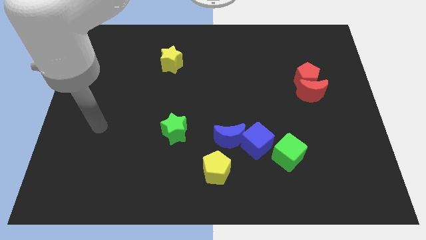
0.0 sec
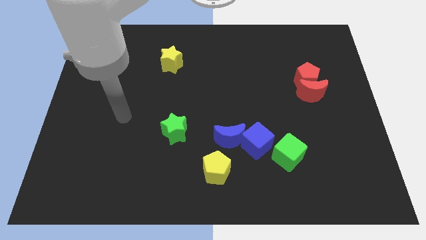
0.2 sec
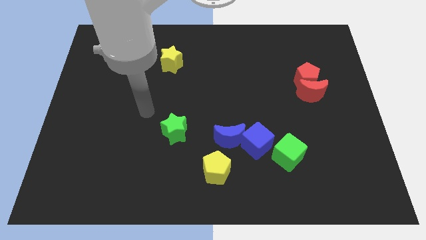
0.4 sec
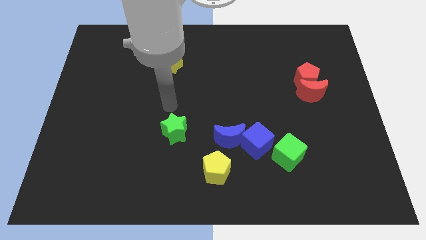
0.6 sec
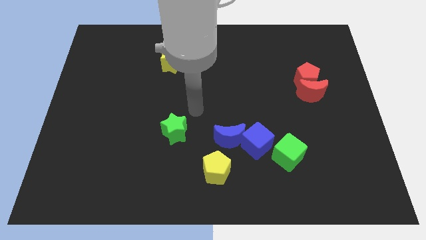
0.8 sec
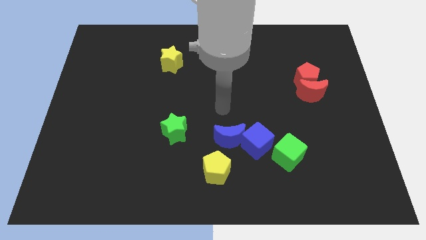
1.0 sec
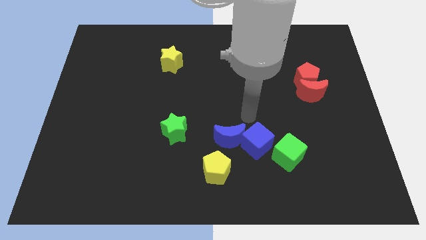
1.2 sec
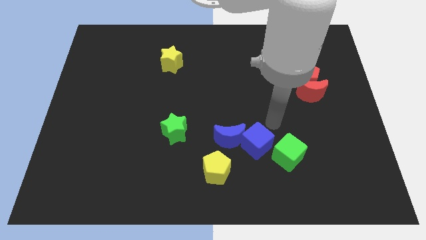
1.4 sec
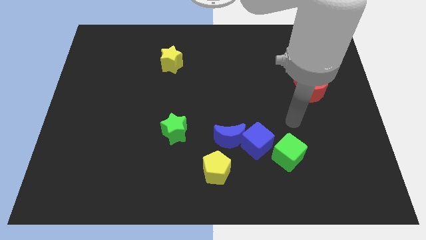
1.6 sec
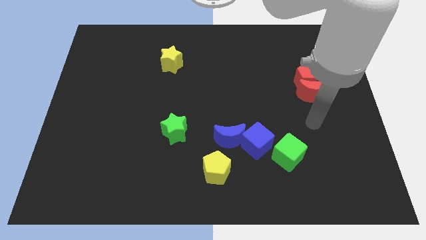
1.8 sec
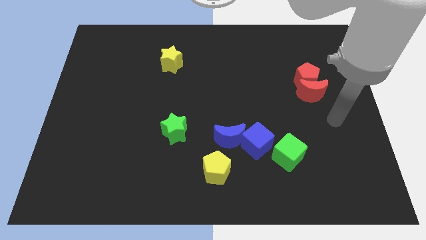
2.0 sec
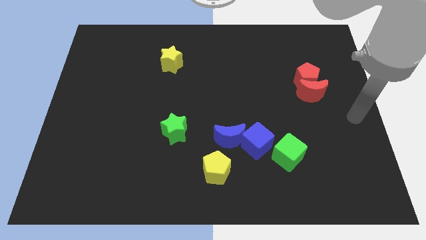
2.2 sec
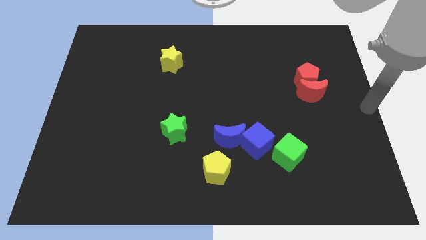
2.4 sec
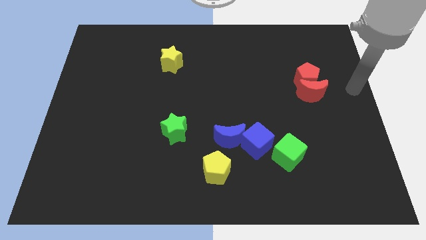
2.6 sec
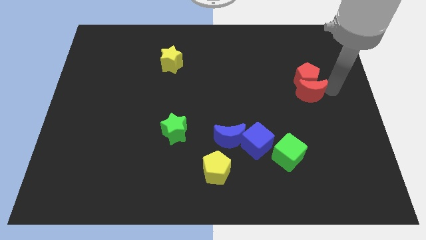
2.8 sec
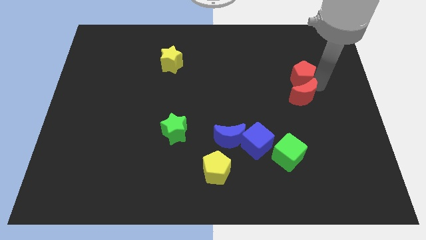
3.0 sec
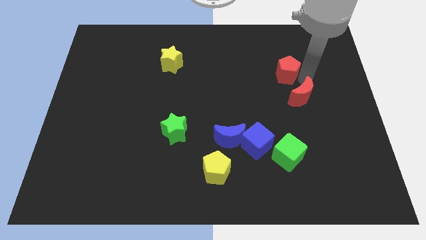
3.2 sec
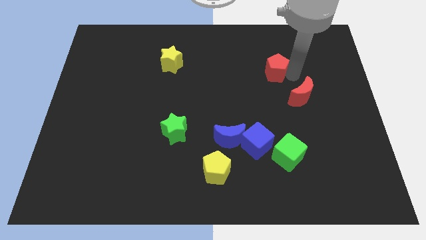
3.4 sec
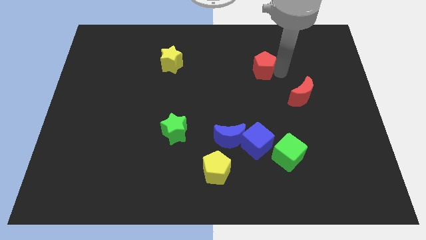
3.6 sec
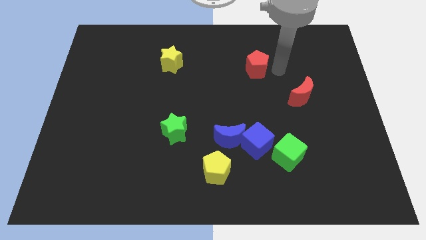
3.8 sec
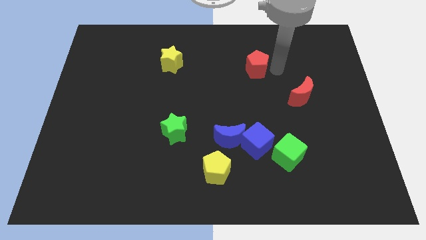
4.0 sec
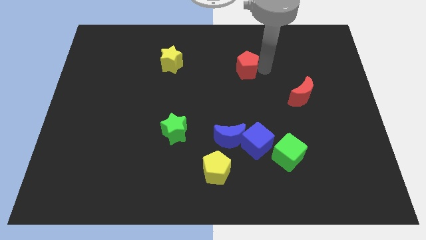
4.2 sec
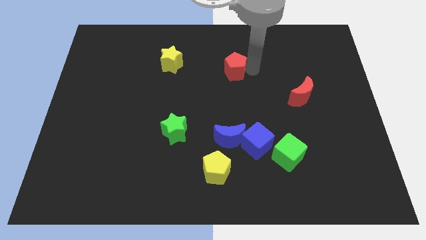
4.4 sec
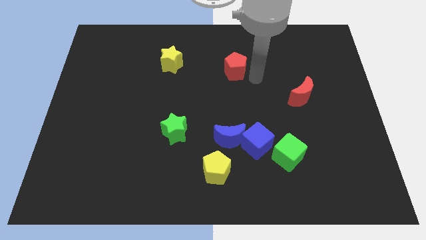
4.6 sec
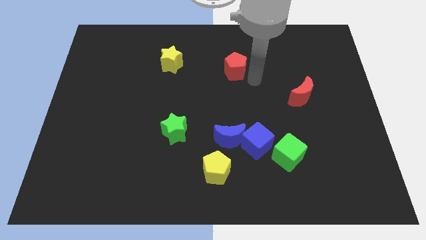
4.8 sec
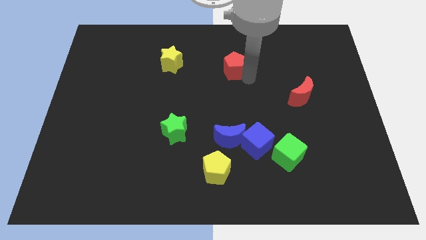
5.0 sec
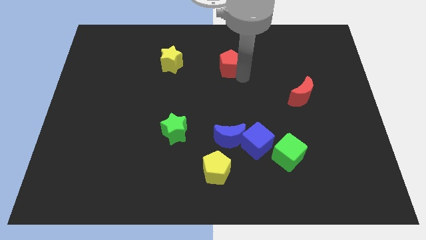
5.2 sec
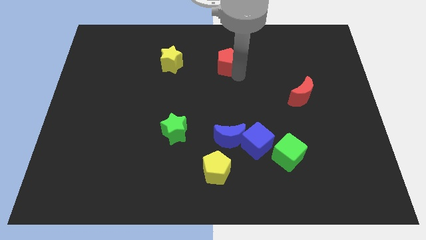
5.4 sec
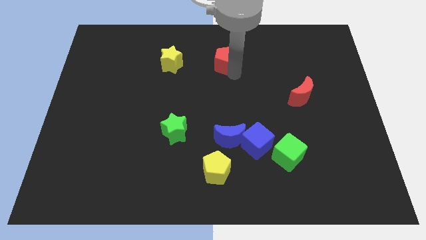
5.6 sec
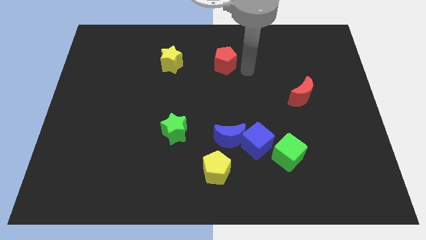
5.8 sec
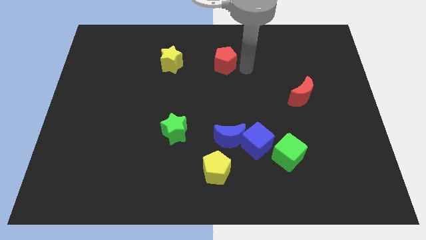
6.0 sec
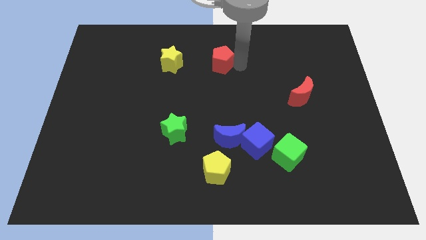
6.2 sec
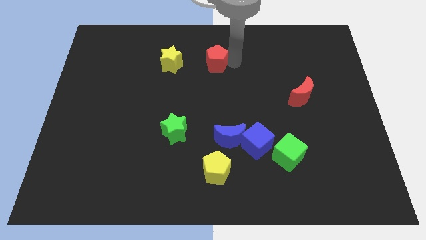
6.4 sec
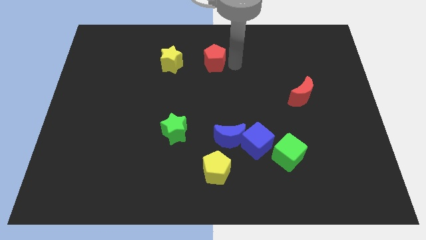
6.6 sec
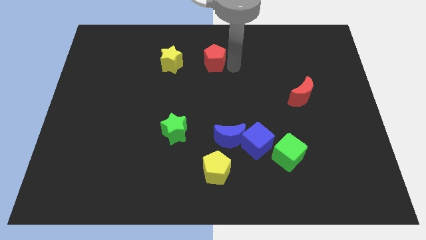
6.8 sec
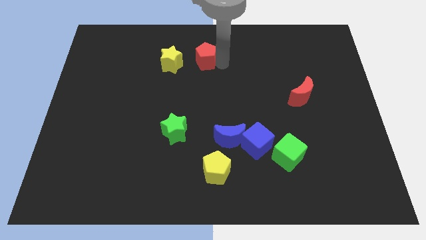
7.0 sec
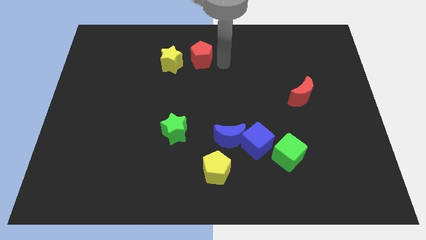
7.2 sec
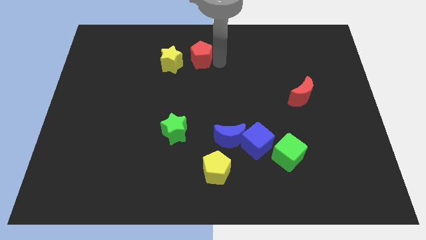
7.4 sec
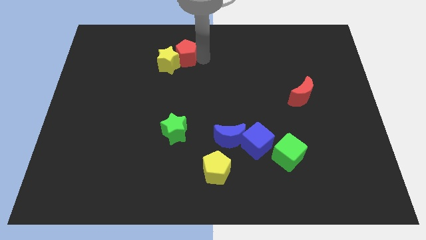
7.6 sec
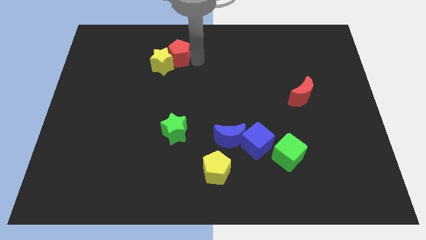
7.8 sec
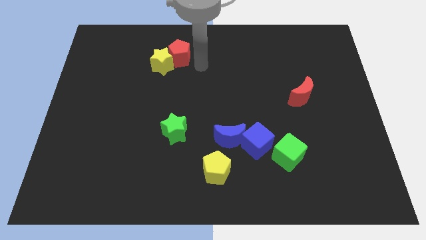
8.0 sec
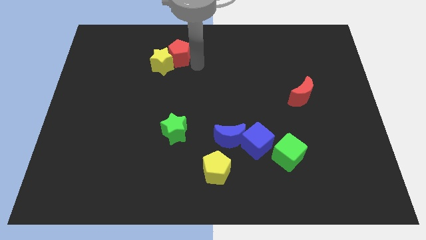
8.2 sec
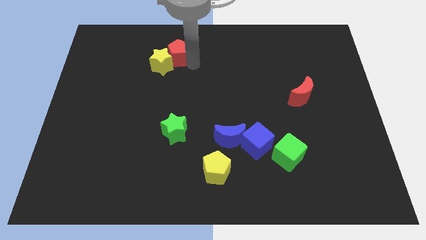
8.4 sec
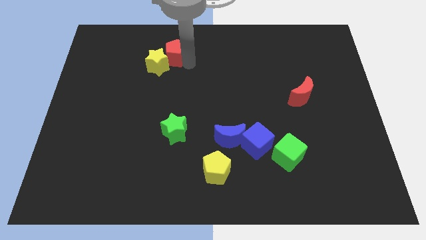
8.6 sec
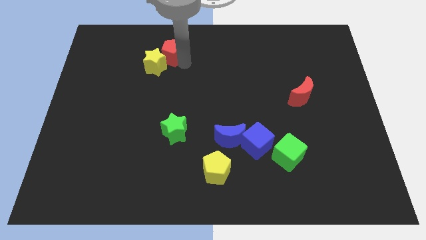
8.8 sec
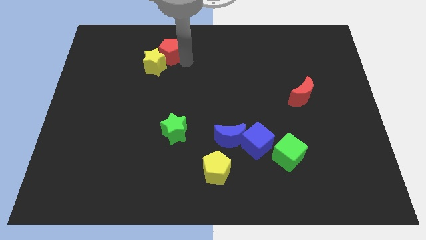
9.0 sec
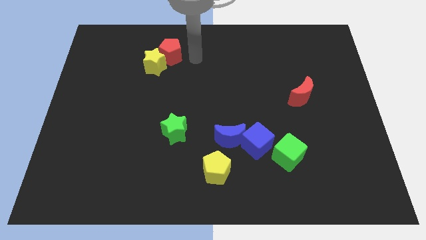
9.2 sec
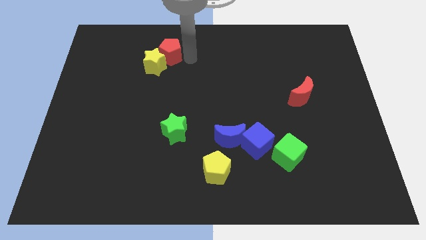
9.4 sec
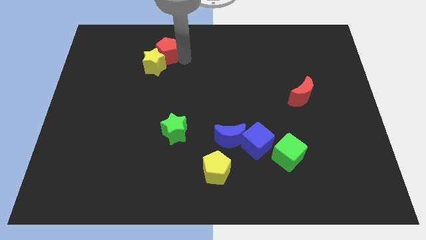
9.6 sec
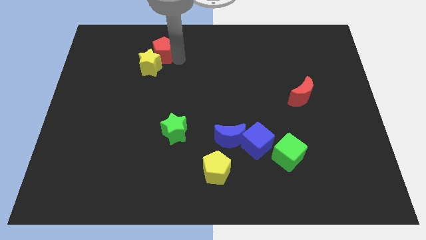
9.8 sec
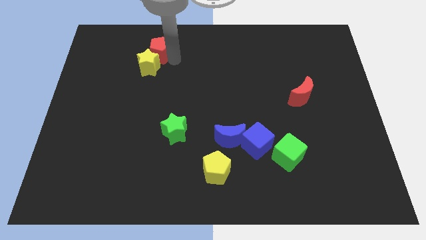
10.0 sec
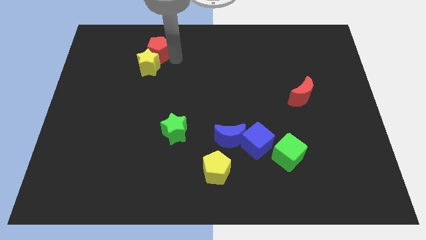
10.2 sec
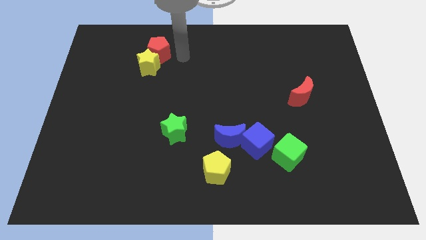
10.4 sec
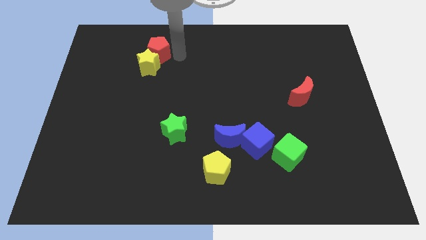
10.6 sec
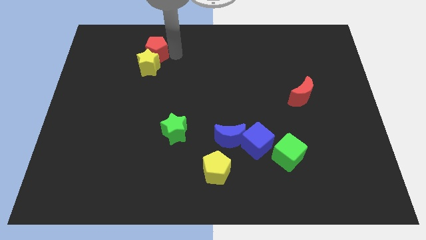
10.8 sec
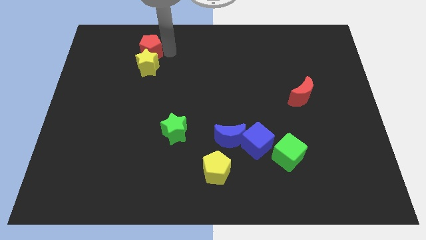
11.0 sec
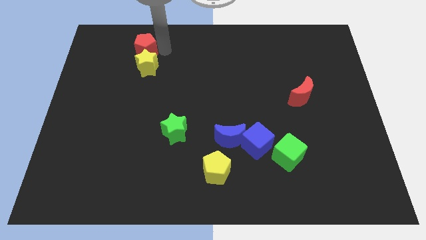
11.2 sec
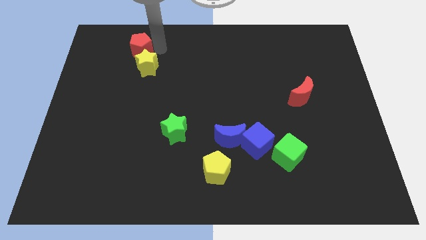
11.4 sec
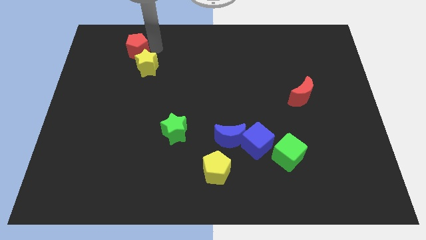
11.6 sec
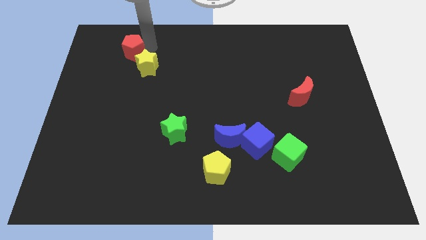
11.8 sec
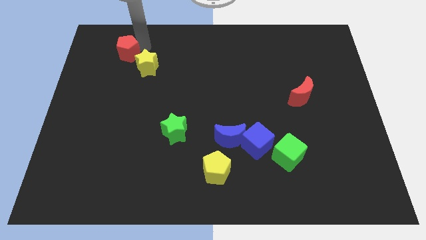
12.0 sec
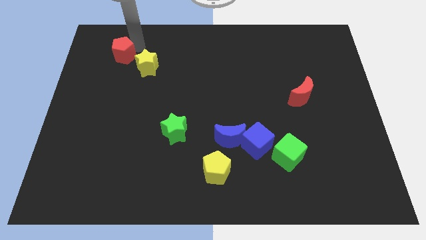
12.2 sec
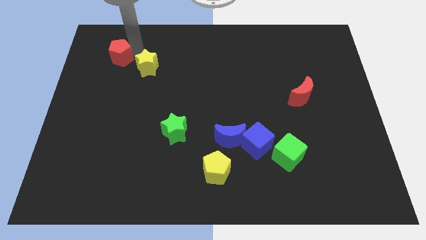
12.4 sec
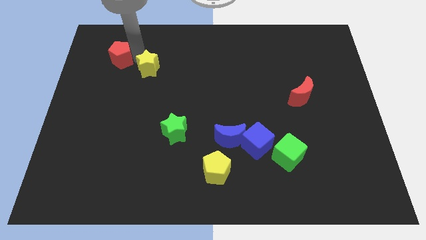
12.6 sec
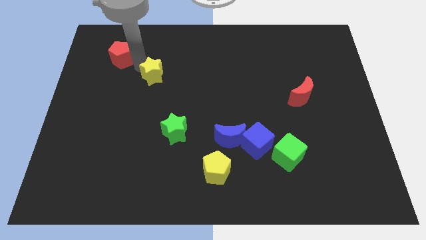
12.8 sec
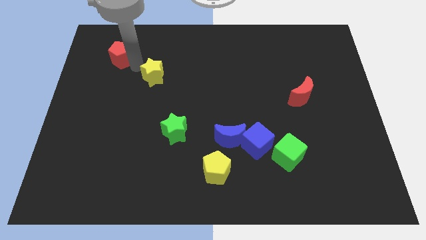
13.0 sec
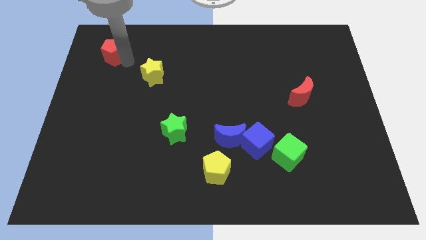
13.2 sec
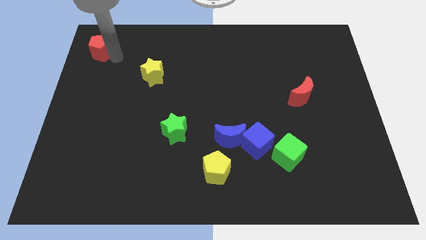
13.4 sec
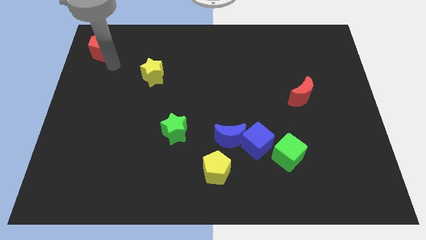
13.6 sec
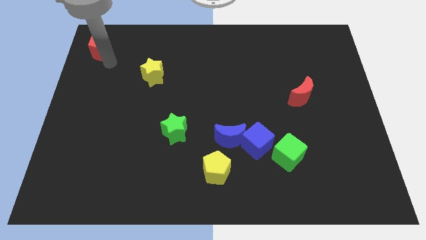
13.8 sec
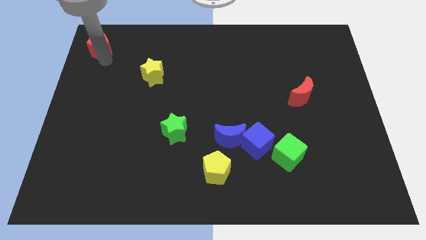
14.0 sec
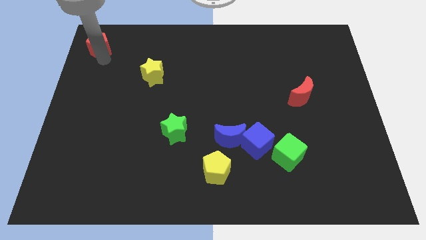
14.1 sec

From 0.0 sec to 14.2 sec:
push the red pentagon to the top left corner
